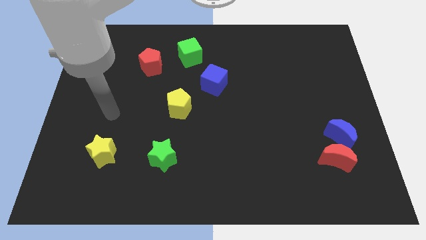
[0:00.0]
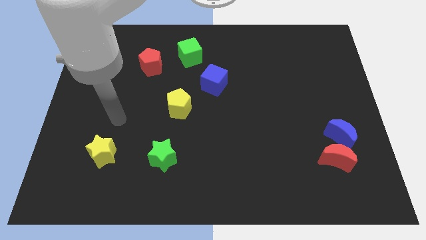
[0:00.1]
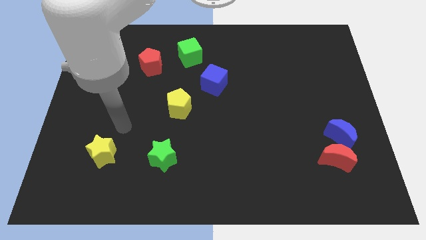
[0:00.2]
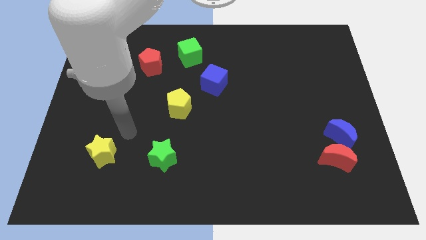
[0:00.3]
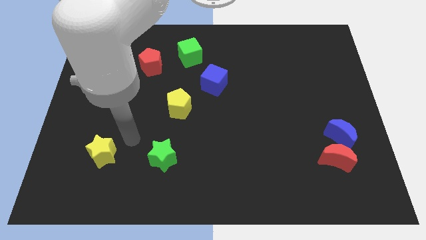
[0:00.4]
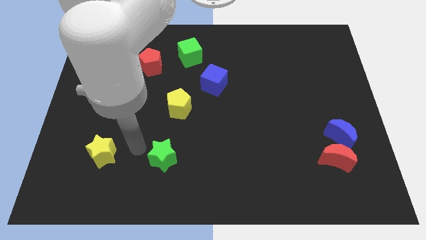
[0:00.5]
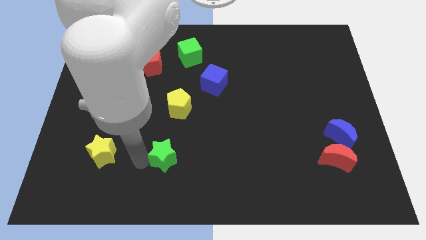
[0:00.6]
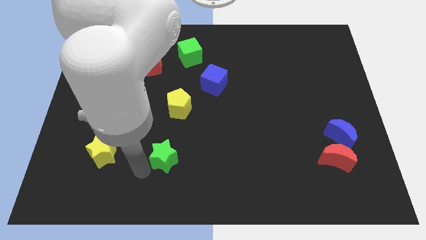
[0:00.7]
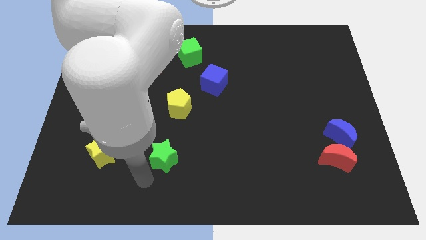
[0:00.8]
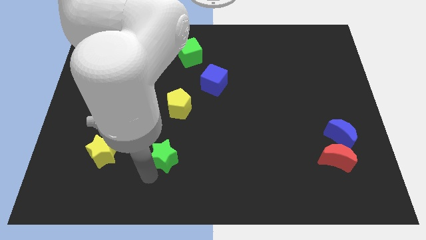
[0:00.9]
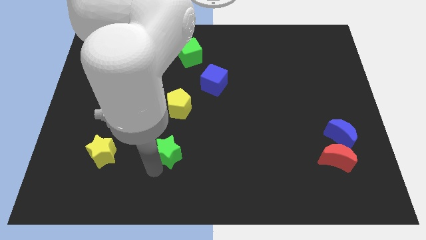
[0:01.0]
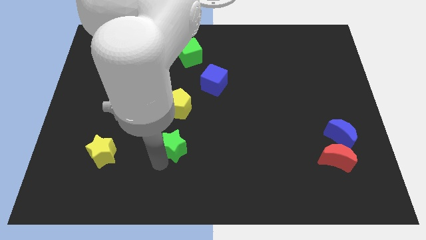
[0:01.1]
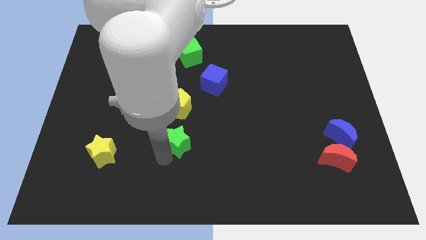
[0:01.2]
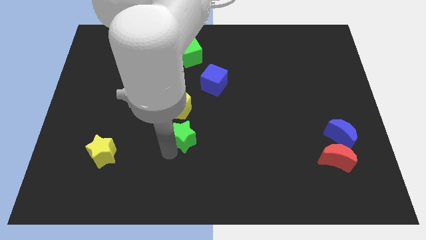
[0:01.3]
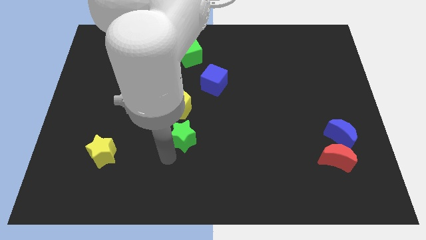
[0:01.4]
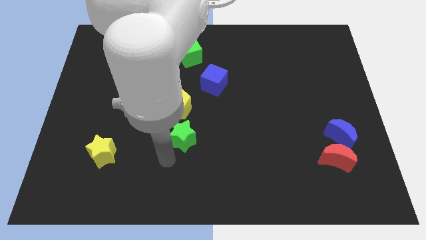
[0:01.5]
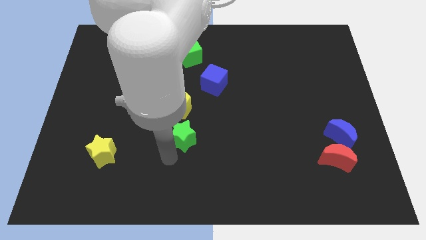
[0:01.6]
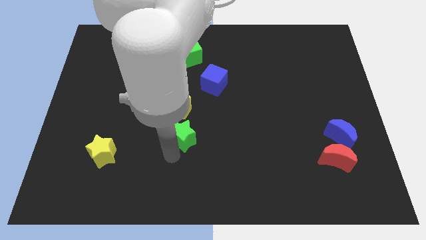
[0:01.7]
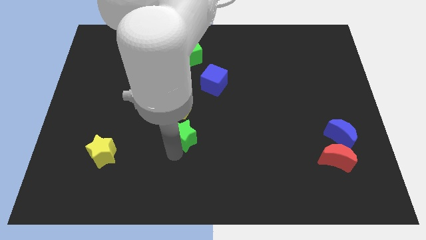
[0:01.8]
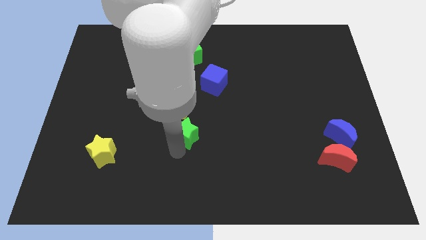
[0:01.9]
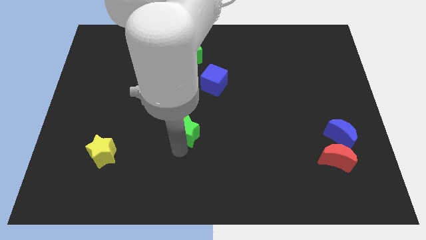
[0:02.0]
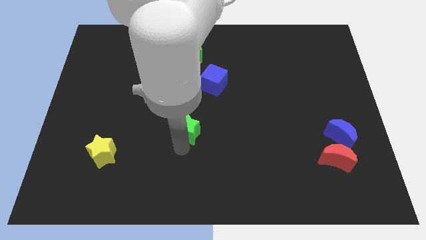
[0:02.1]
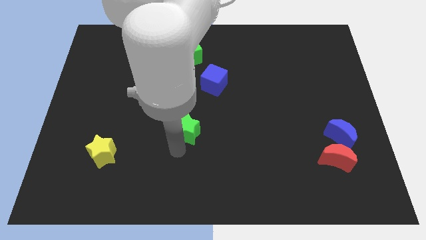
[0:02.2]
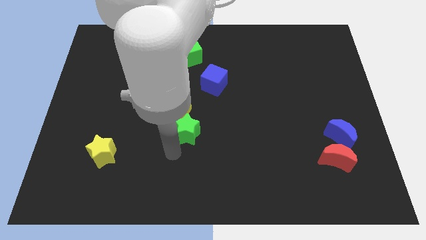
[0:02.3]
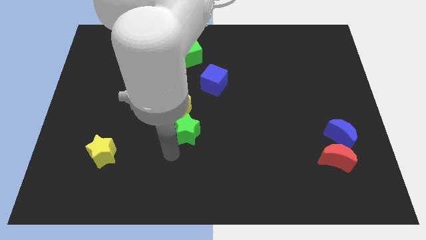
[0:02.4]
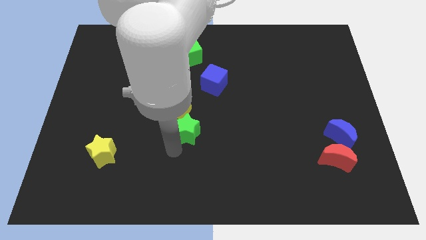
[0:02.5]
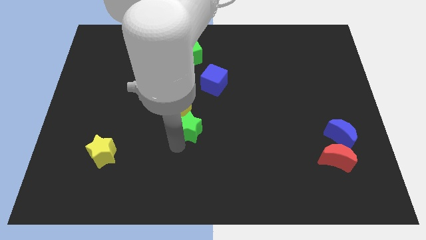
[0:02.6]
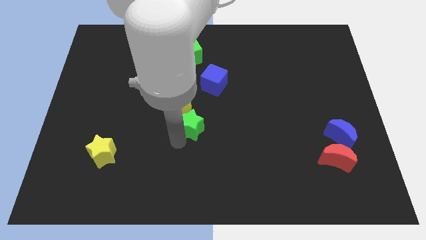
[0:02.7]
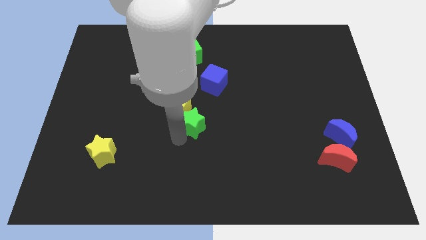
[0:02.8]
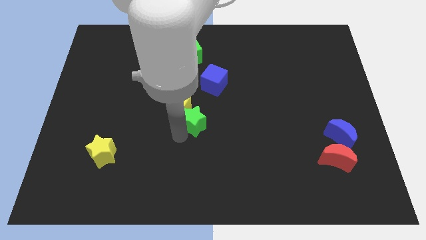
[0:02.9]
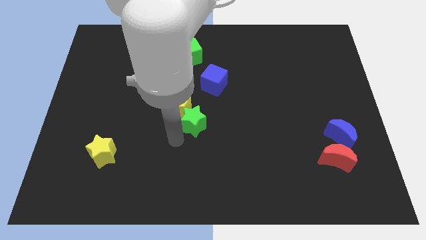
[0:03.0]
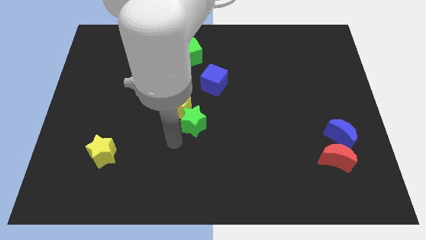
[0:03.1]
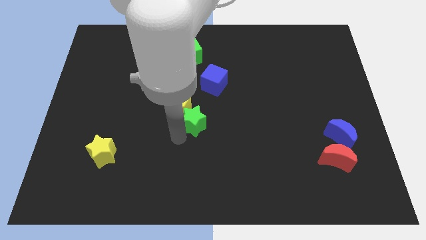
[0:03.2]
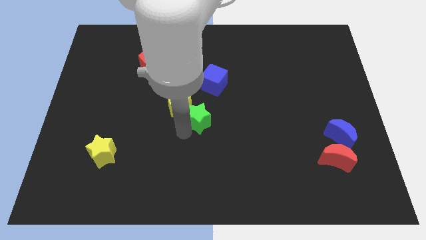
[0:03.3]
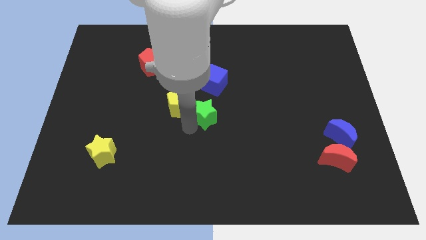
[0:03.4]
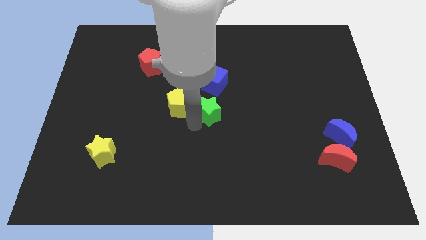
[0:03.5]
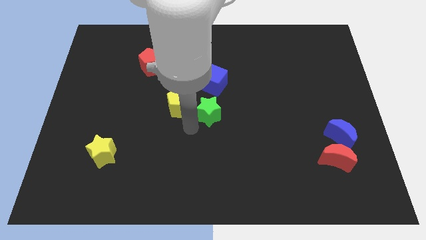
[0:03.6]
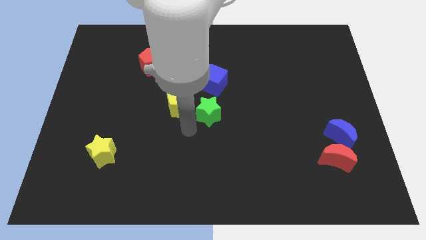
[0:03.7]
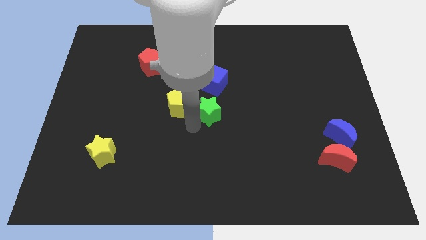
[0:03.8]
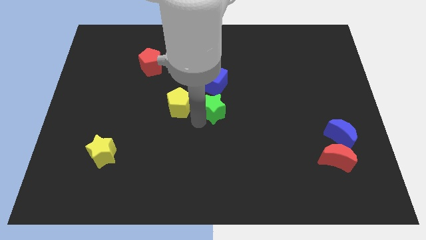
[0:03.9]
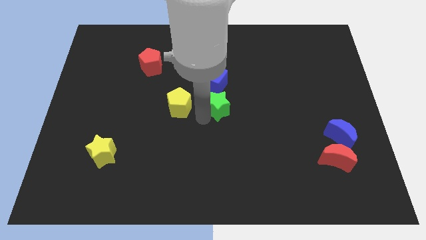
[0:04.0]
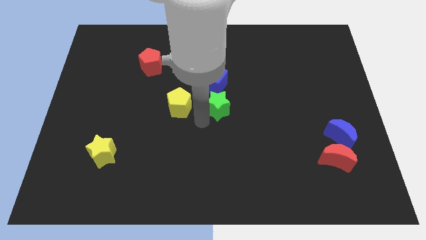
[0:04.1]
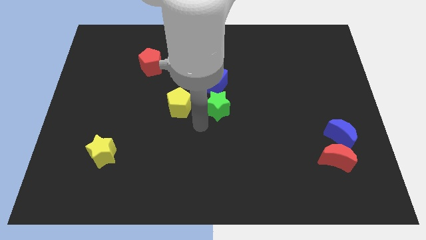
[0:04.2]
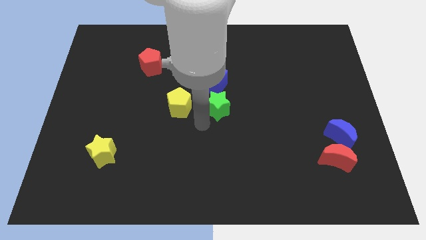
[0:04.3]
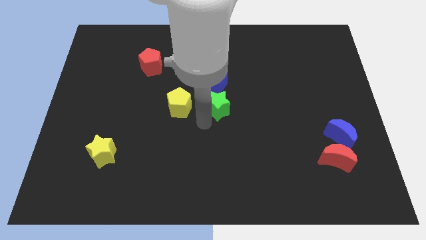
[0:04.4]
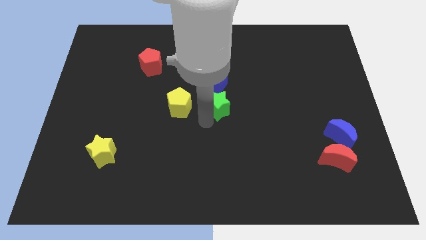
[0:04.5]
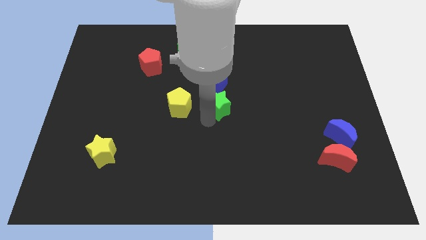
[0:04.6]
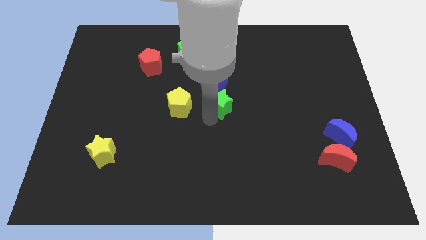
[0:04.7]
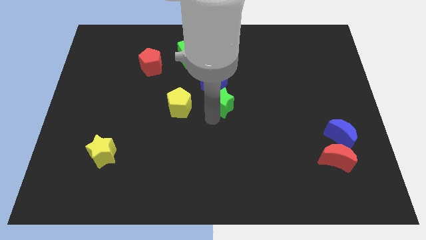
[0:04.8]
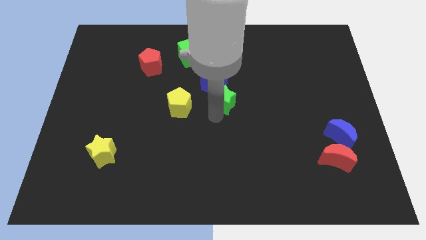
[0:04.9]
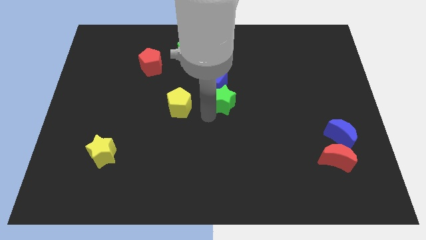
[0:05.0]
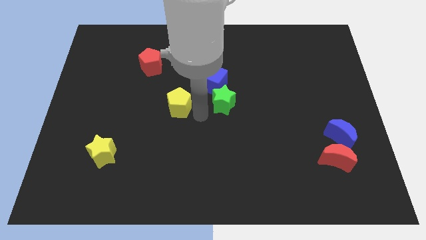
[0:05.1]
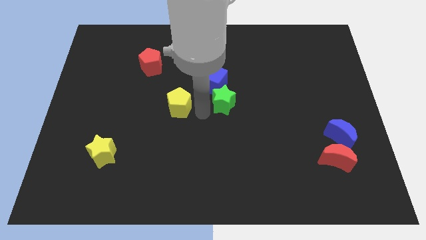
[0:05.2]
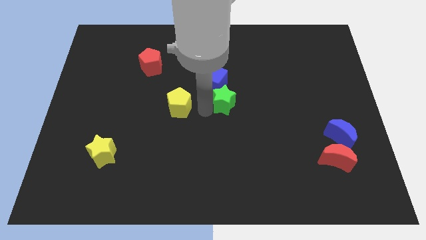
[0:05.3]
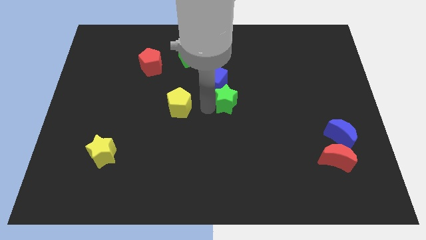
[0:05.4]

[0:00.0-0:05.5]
move the green star upwards and to the right

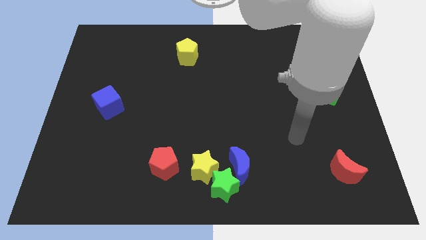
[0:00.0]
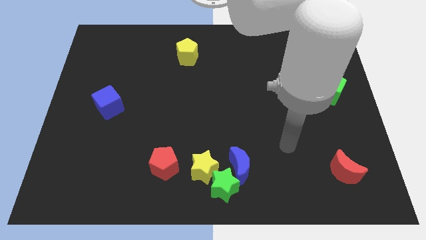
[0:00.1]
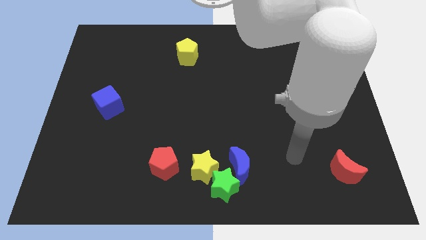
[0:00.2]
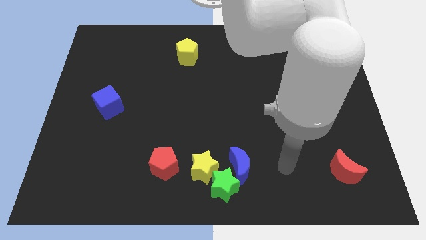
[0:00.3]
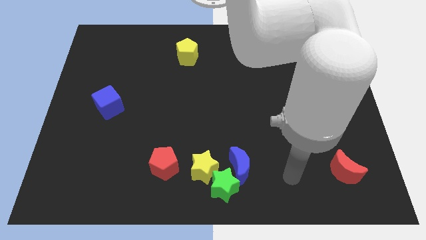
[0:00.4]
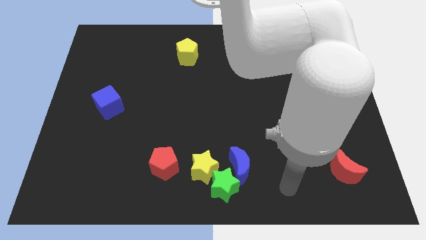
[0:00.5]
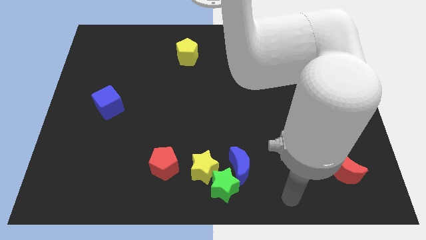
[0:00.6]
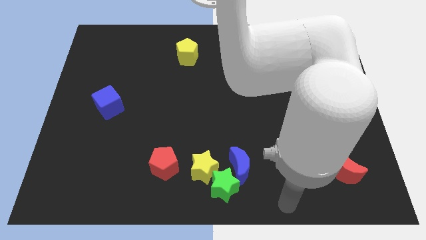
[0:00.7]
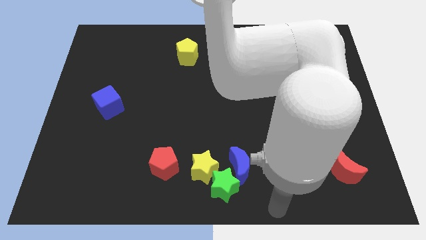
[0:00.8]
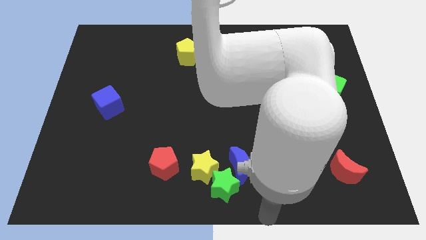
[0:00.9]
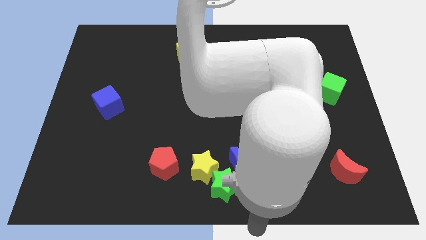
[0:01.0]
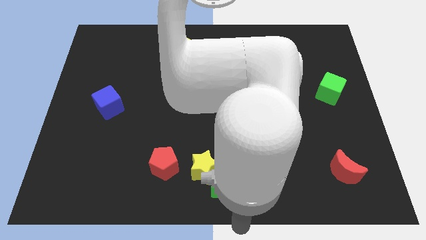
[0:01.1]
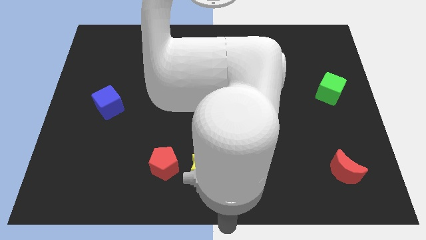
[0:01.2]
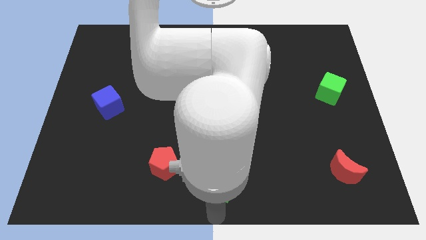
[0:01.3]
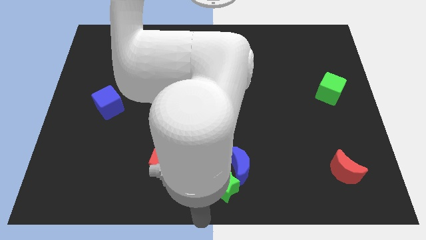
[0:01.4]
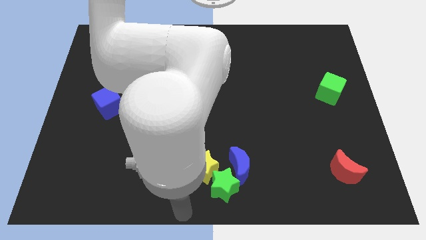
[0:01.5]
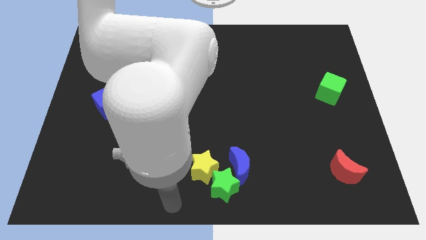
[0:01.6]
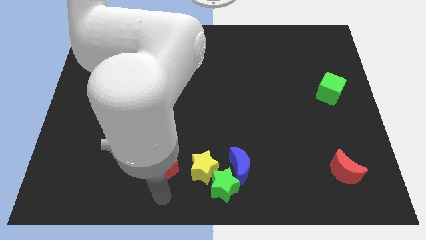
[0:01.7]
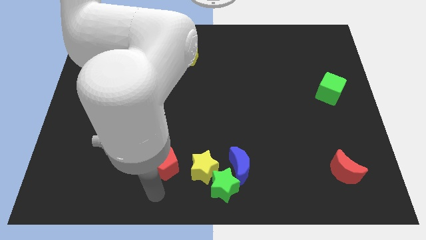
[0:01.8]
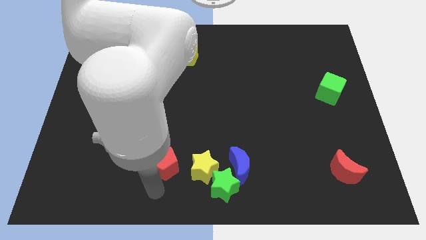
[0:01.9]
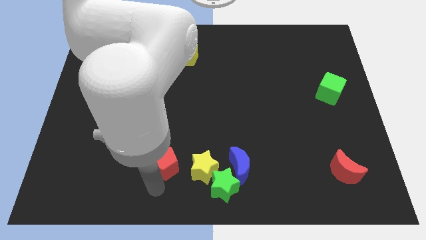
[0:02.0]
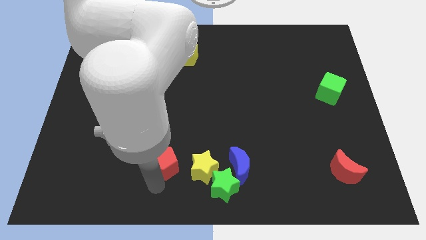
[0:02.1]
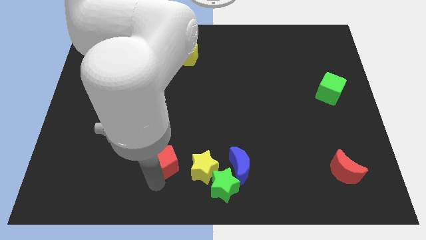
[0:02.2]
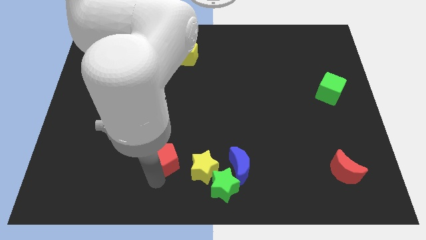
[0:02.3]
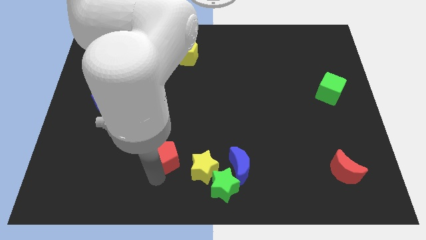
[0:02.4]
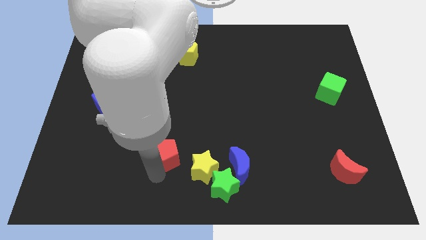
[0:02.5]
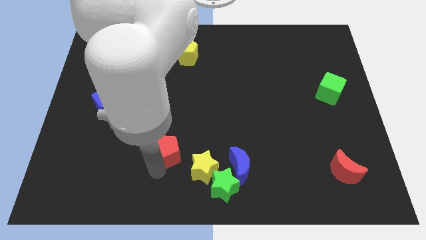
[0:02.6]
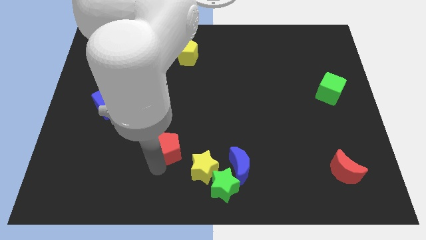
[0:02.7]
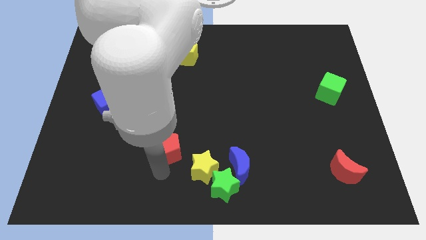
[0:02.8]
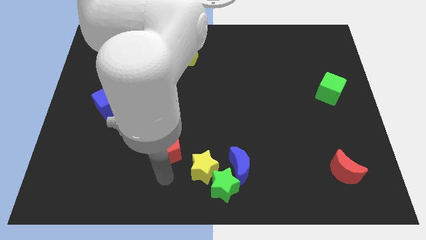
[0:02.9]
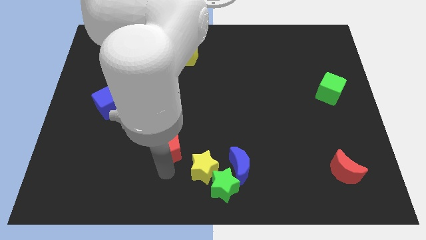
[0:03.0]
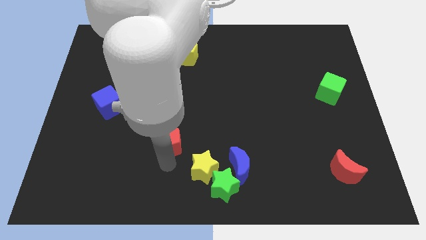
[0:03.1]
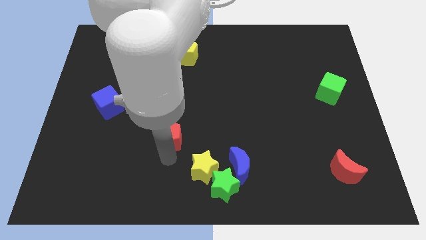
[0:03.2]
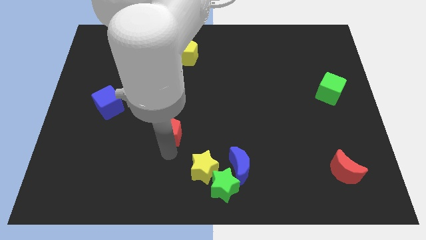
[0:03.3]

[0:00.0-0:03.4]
slightly push the red pentagon up
